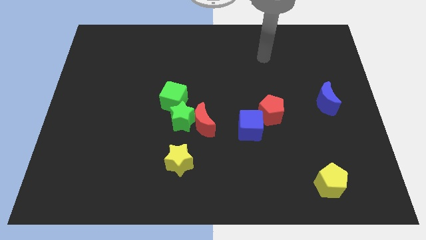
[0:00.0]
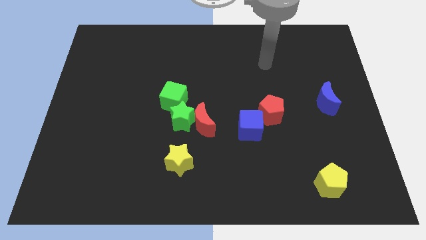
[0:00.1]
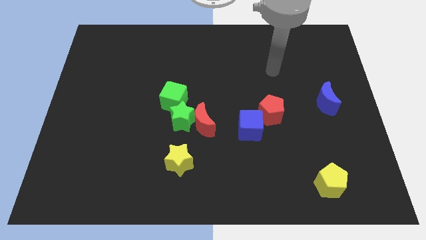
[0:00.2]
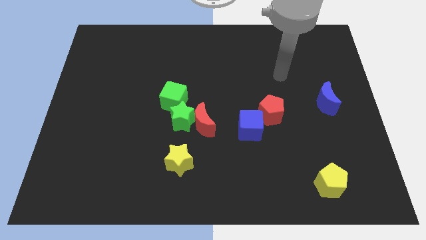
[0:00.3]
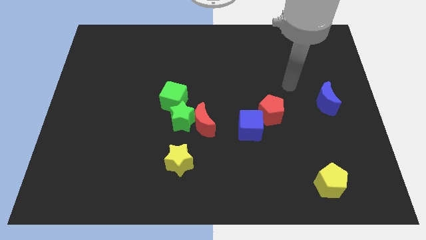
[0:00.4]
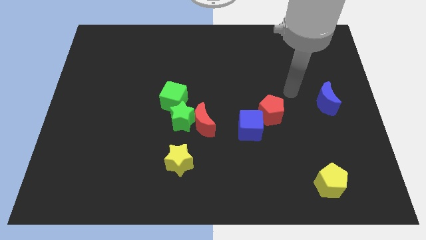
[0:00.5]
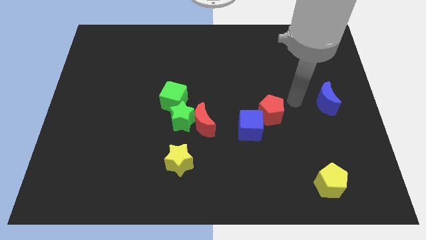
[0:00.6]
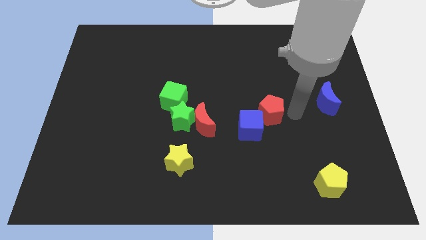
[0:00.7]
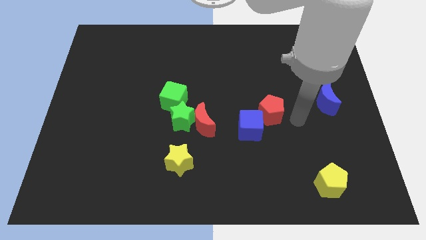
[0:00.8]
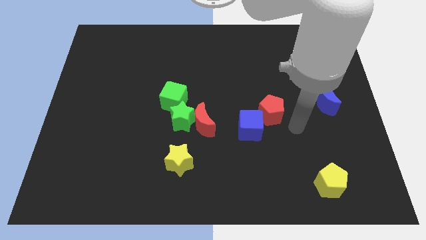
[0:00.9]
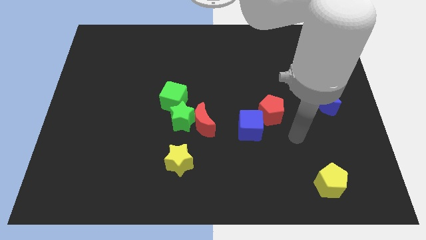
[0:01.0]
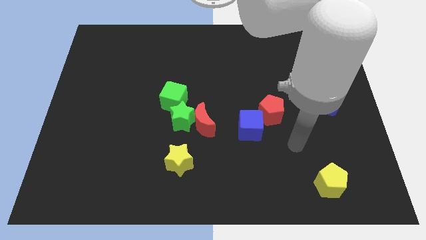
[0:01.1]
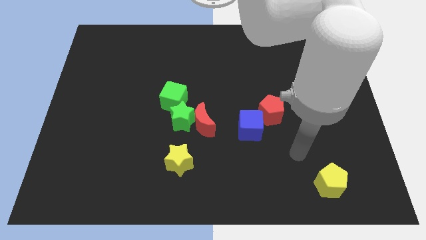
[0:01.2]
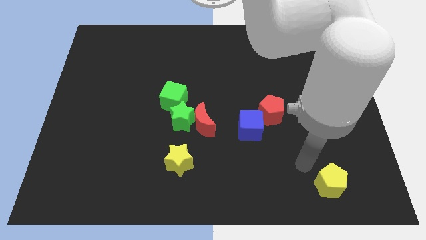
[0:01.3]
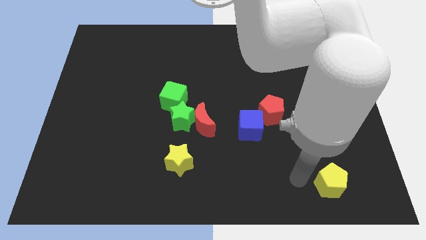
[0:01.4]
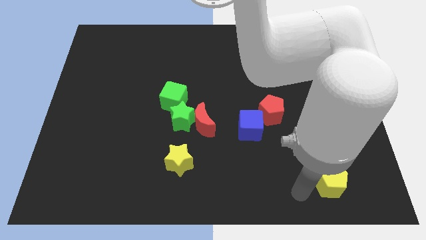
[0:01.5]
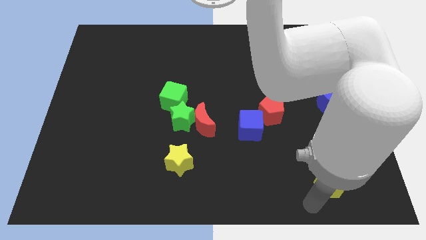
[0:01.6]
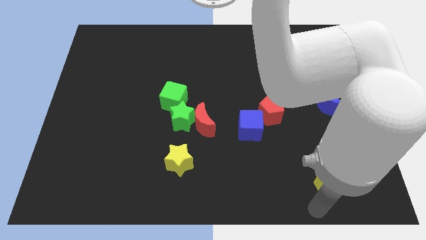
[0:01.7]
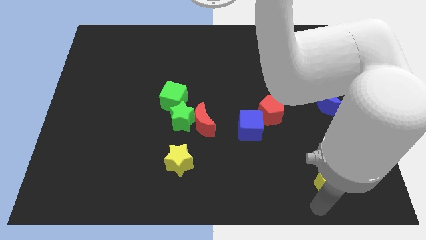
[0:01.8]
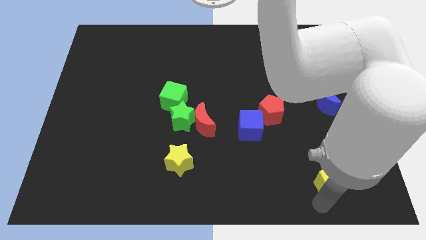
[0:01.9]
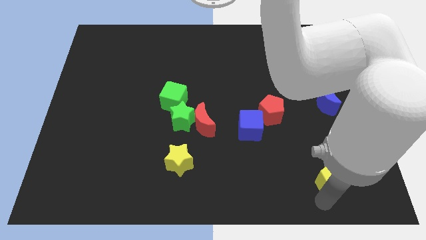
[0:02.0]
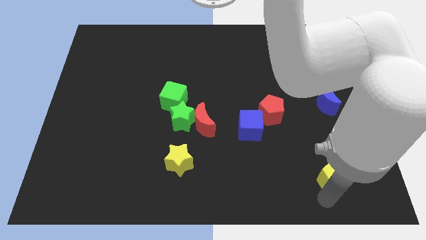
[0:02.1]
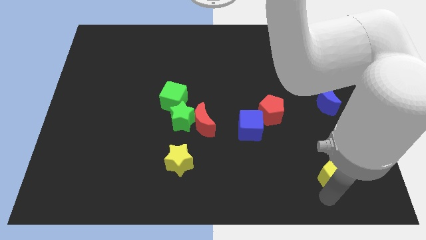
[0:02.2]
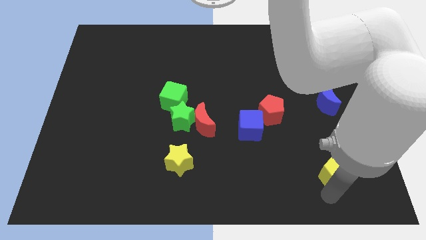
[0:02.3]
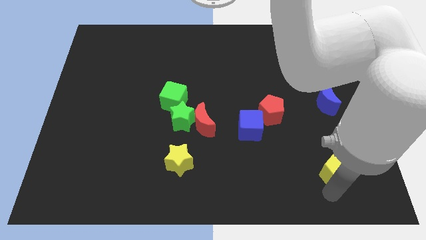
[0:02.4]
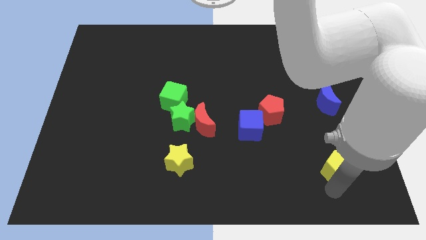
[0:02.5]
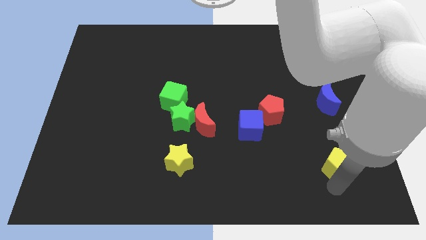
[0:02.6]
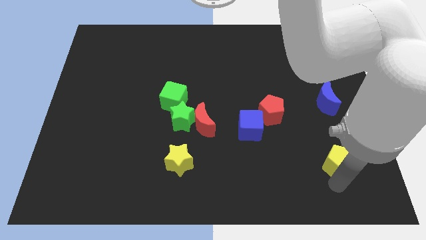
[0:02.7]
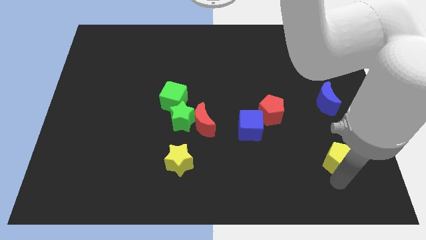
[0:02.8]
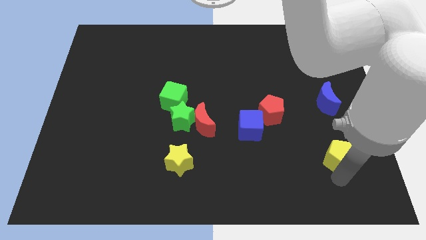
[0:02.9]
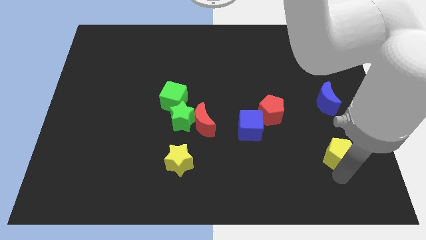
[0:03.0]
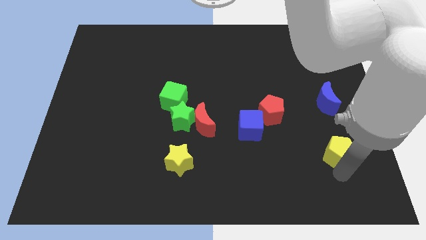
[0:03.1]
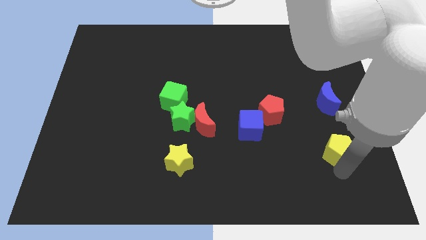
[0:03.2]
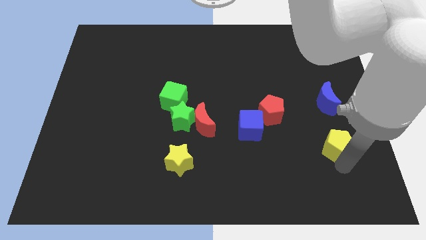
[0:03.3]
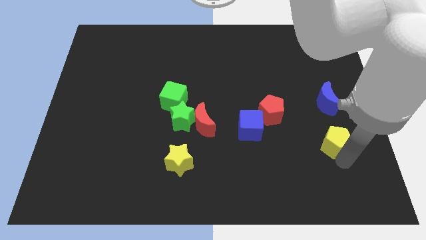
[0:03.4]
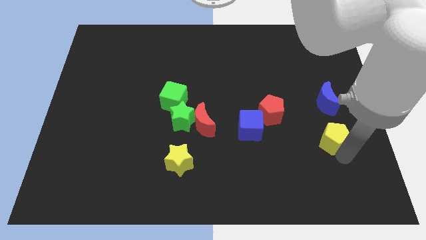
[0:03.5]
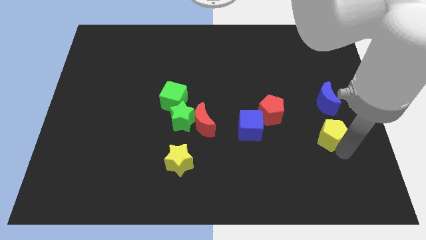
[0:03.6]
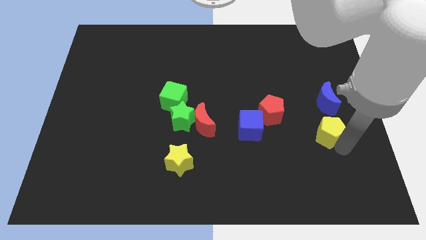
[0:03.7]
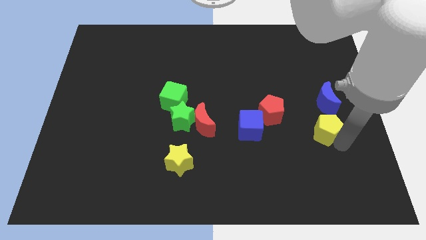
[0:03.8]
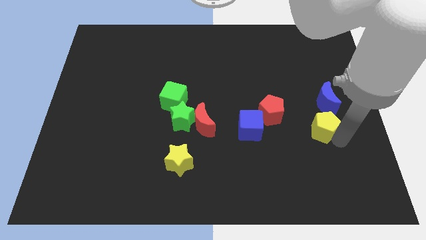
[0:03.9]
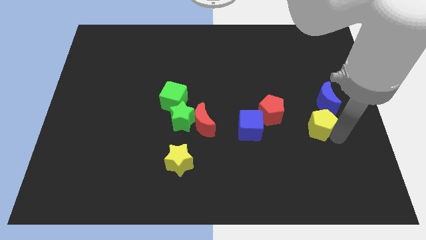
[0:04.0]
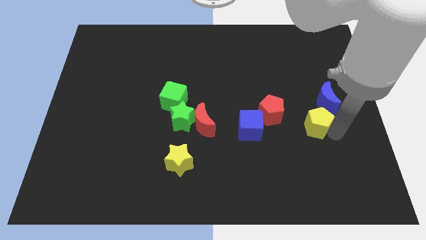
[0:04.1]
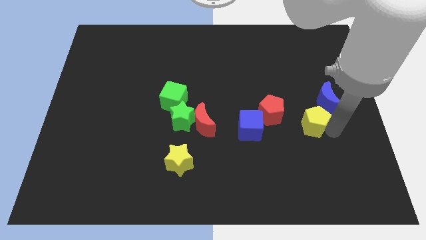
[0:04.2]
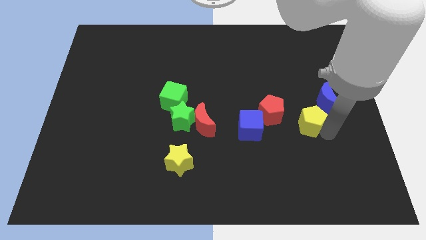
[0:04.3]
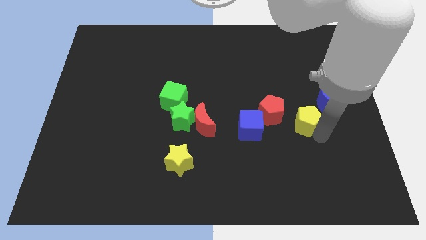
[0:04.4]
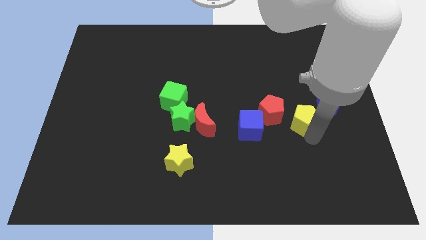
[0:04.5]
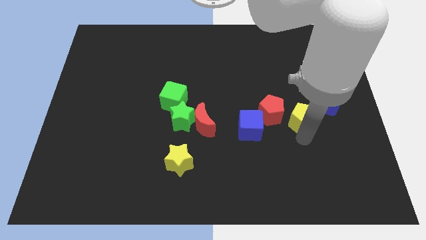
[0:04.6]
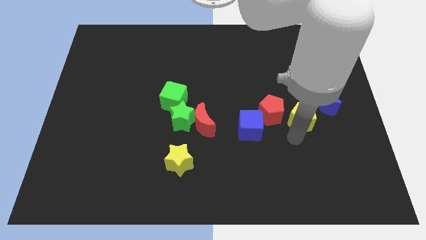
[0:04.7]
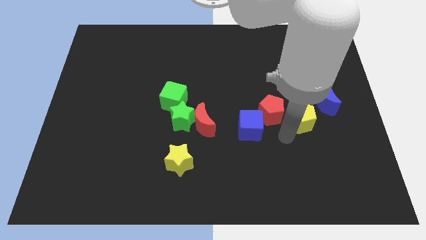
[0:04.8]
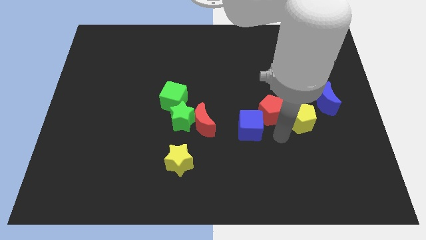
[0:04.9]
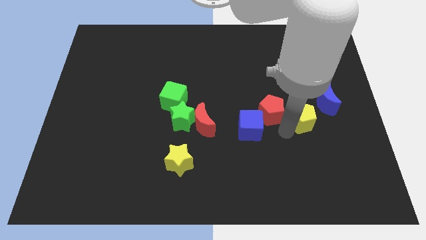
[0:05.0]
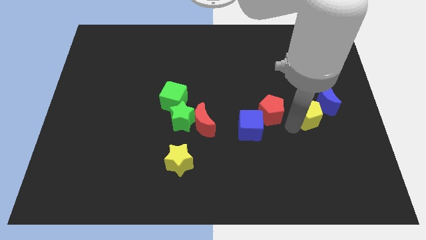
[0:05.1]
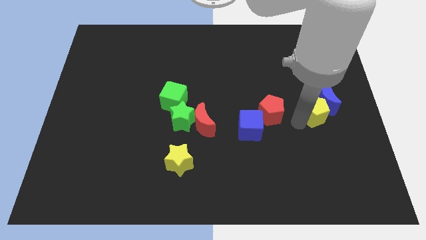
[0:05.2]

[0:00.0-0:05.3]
slide the yellow pentagon close to the blue moon

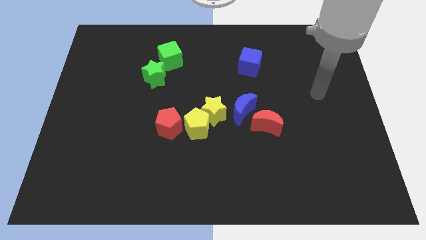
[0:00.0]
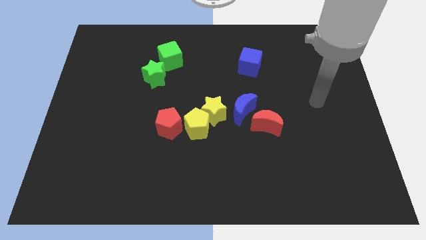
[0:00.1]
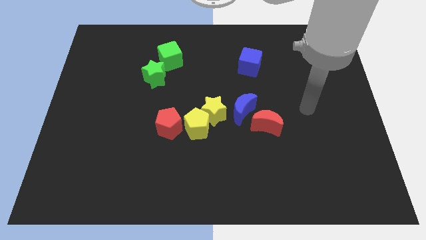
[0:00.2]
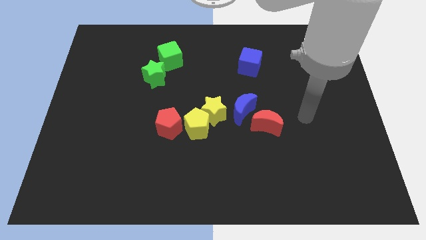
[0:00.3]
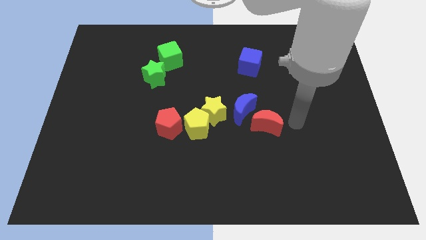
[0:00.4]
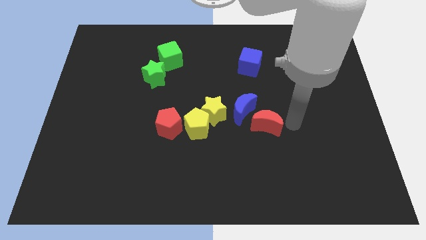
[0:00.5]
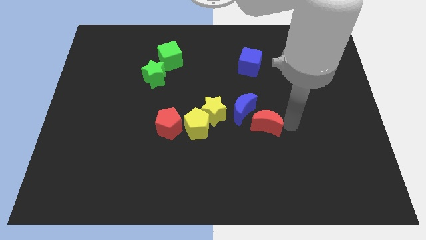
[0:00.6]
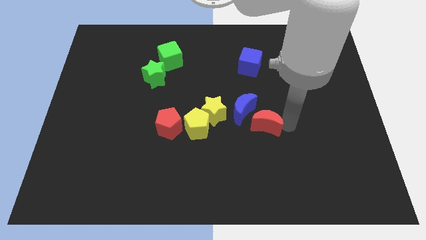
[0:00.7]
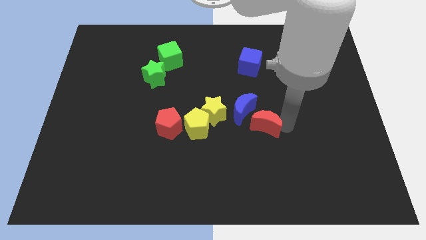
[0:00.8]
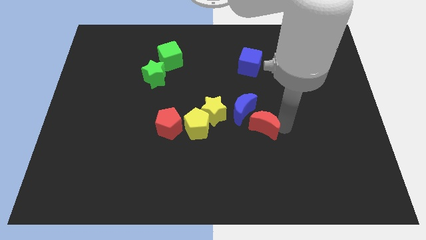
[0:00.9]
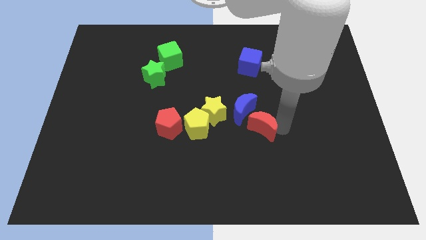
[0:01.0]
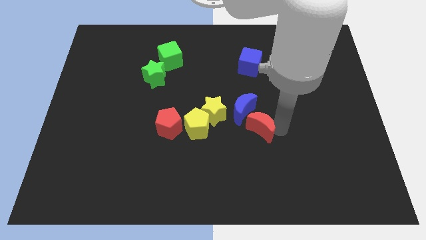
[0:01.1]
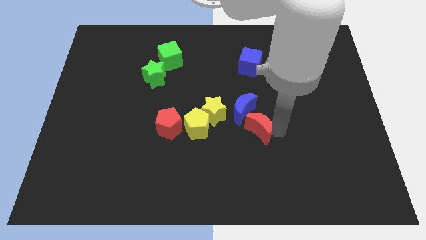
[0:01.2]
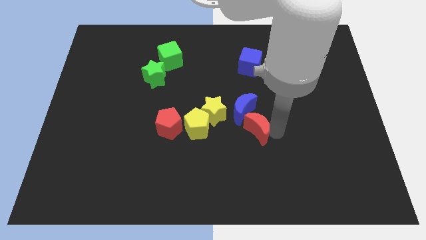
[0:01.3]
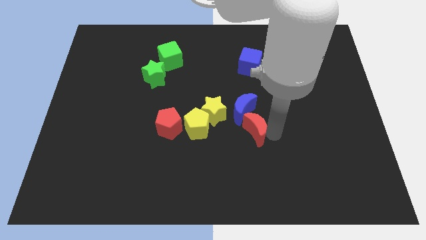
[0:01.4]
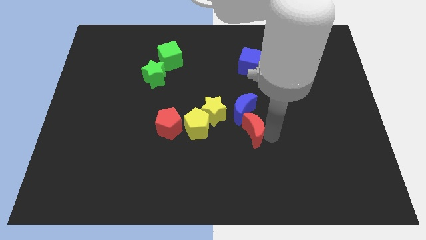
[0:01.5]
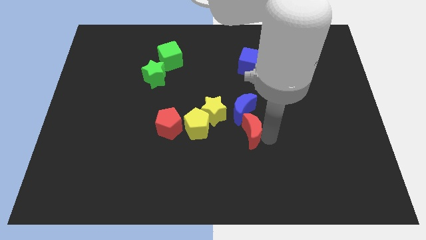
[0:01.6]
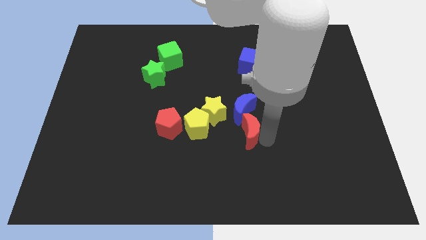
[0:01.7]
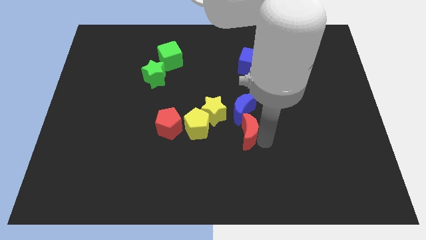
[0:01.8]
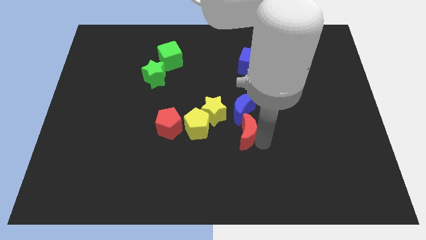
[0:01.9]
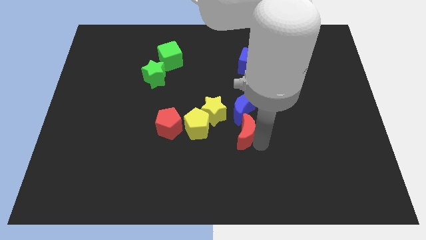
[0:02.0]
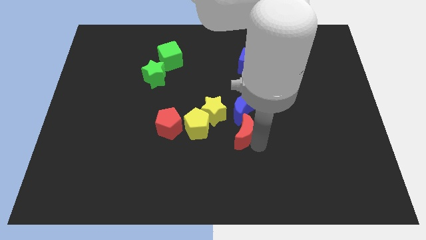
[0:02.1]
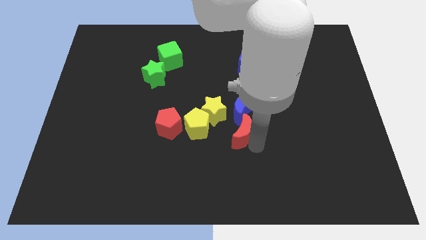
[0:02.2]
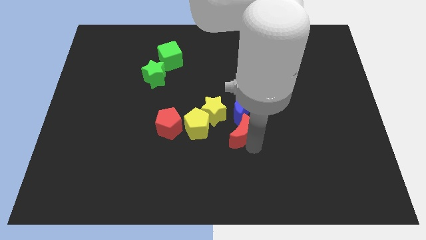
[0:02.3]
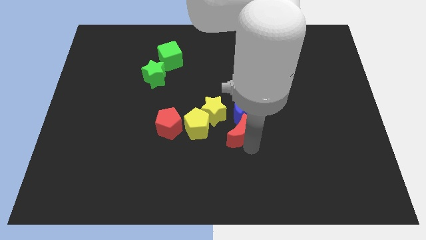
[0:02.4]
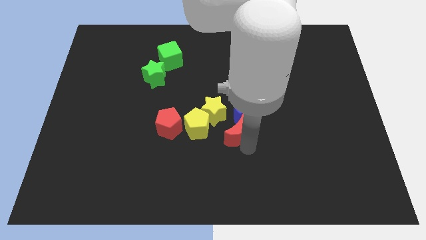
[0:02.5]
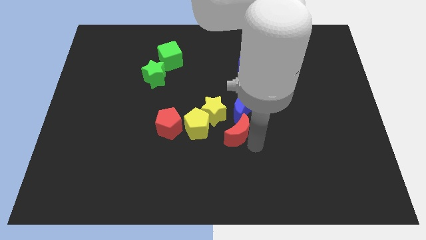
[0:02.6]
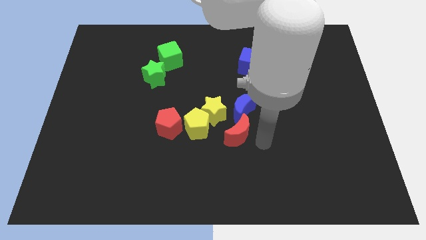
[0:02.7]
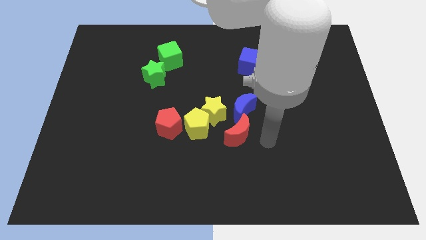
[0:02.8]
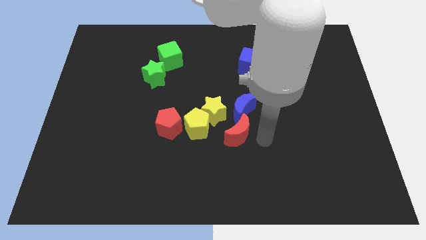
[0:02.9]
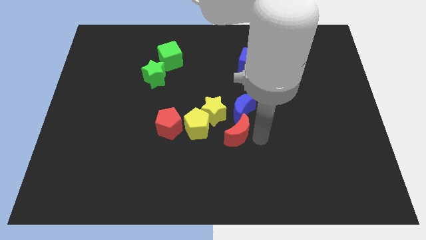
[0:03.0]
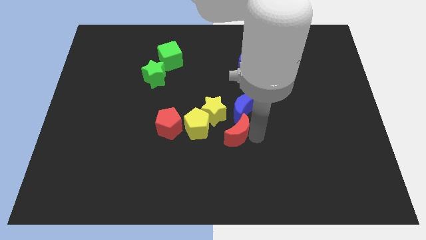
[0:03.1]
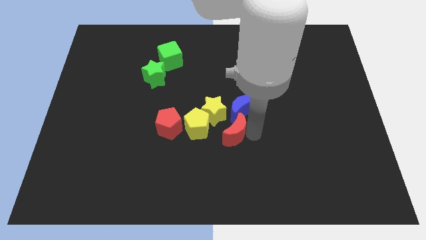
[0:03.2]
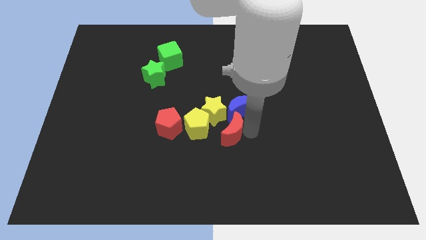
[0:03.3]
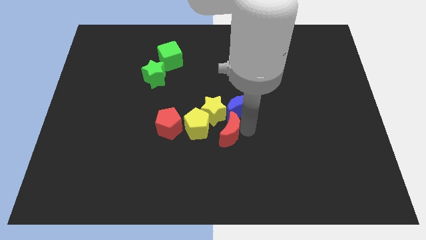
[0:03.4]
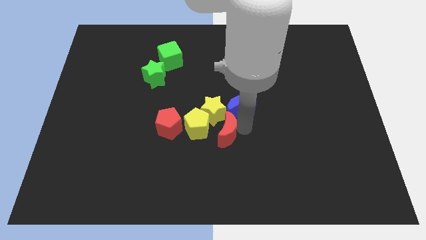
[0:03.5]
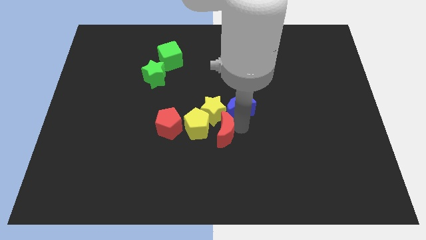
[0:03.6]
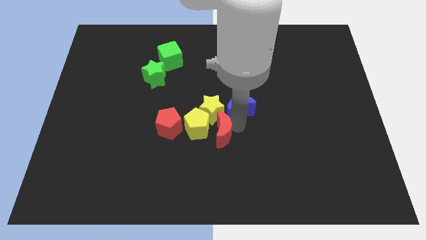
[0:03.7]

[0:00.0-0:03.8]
push the red moon towards the yellow pentagon
